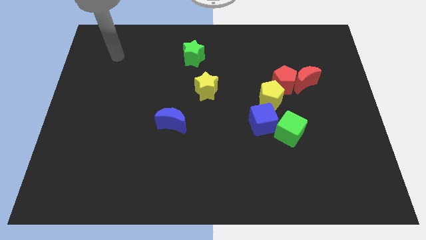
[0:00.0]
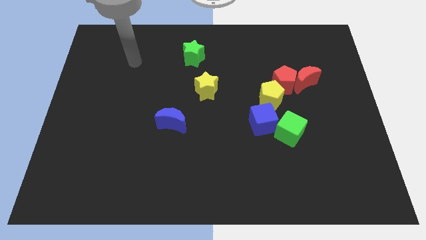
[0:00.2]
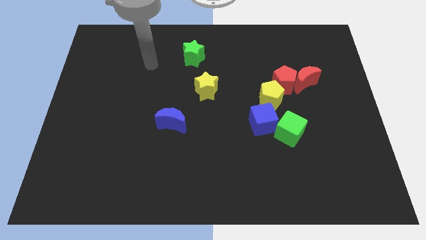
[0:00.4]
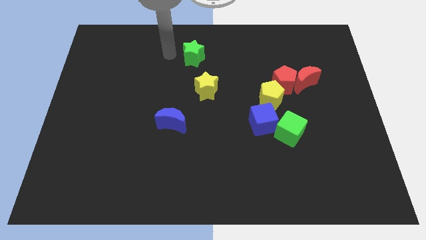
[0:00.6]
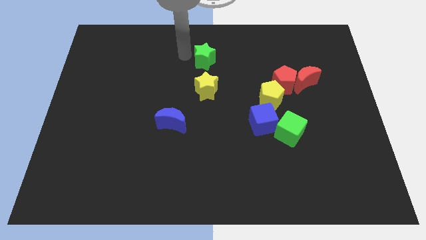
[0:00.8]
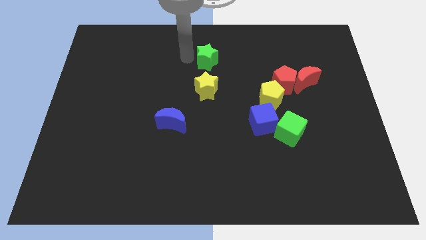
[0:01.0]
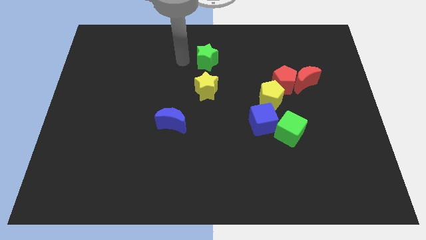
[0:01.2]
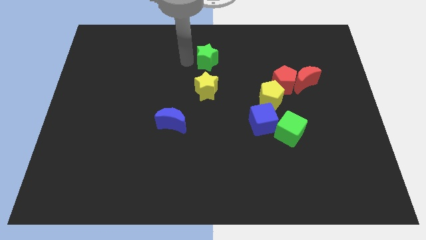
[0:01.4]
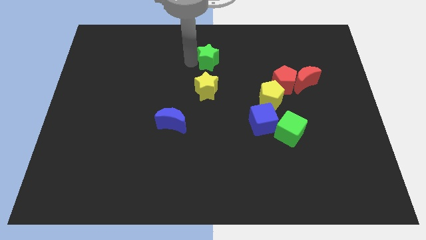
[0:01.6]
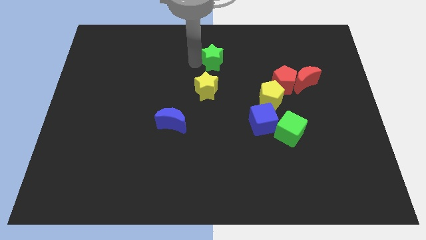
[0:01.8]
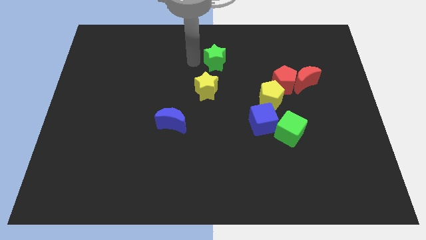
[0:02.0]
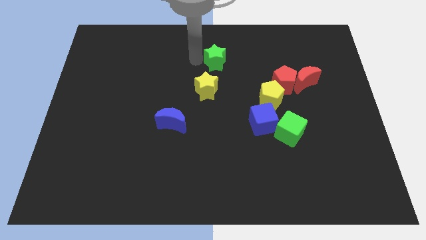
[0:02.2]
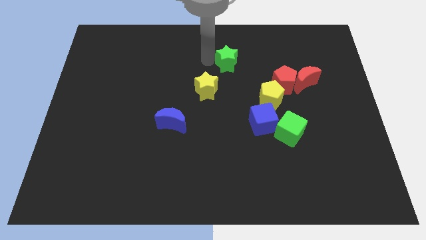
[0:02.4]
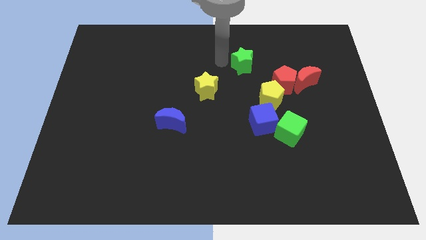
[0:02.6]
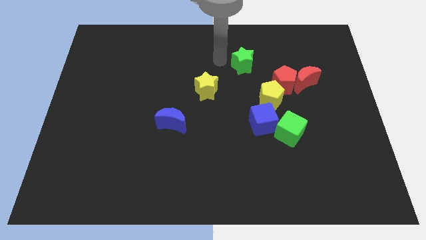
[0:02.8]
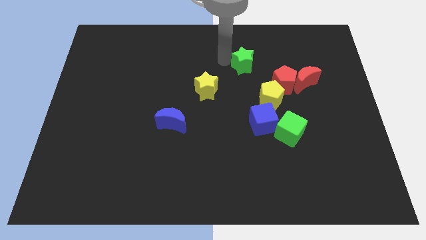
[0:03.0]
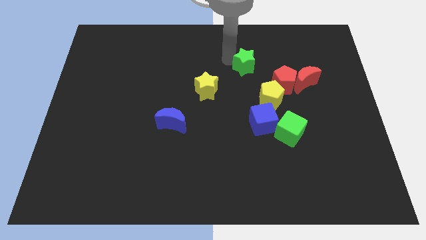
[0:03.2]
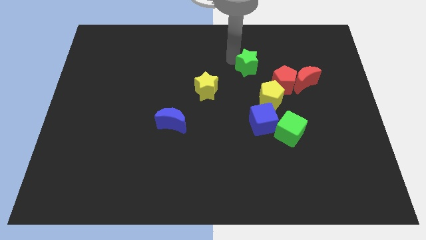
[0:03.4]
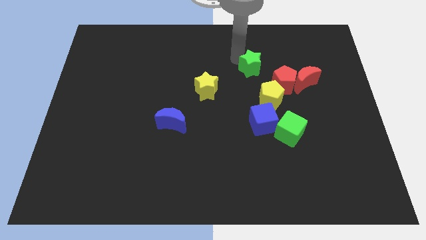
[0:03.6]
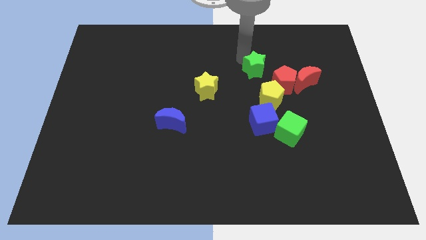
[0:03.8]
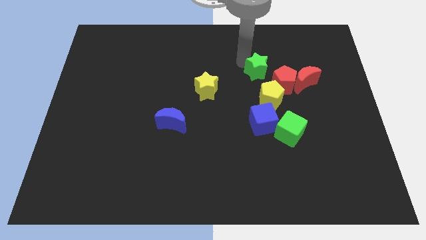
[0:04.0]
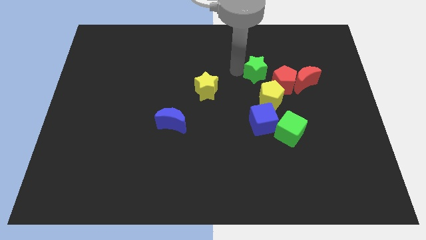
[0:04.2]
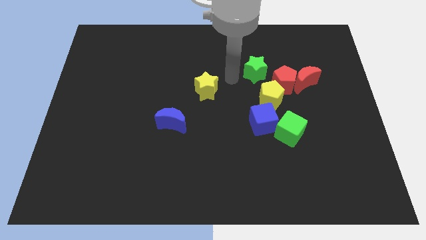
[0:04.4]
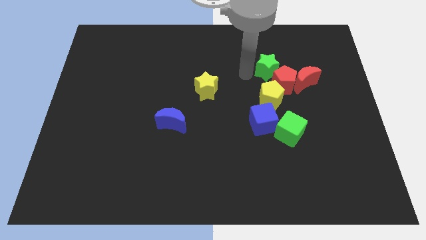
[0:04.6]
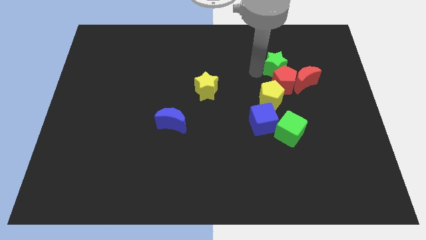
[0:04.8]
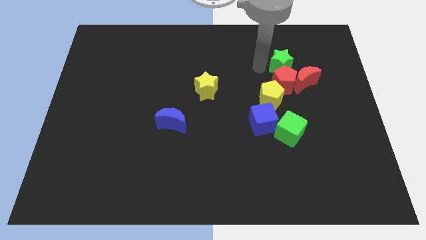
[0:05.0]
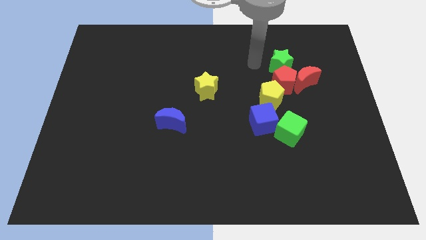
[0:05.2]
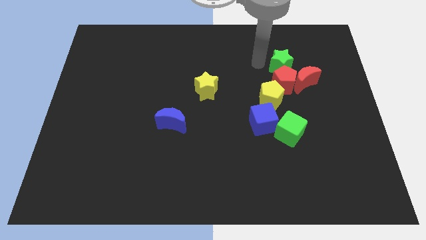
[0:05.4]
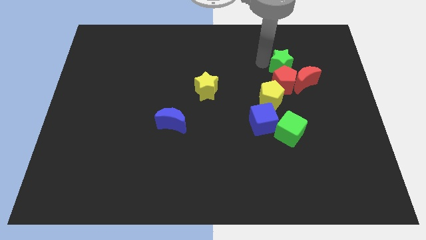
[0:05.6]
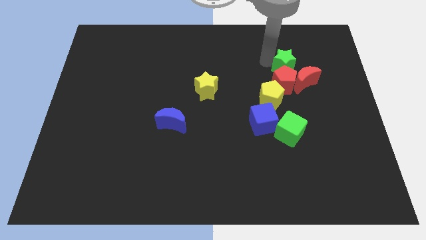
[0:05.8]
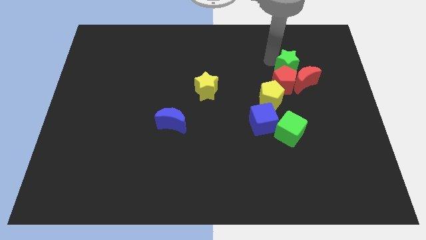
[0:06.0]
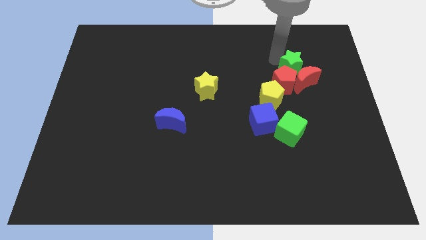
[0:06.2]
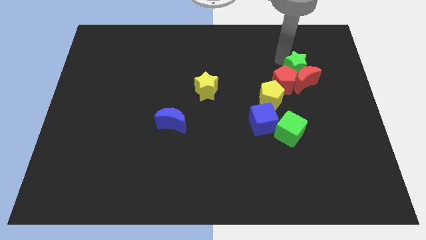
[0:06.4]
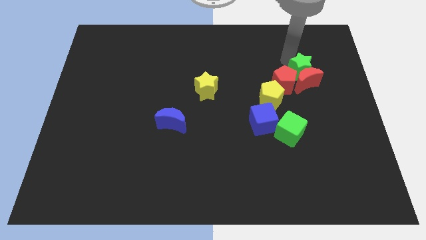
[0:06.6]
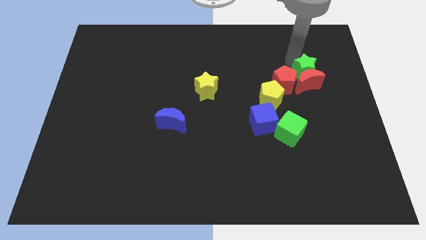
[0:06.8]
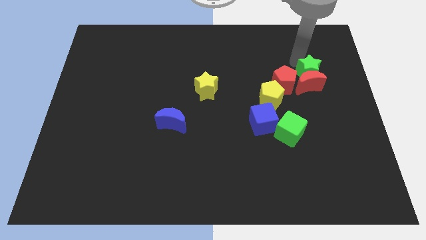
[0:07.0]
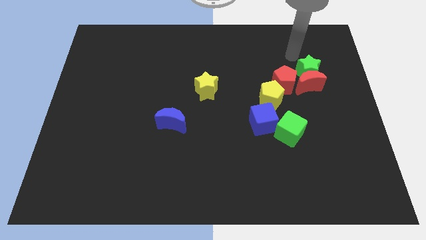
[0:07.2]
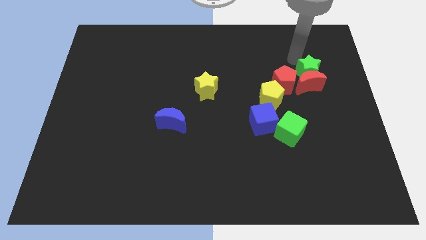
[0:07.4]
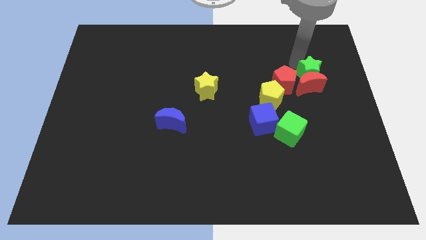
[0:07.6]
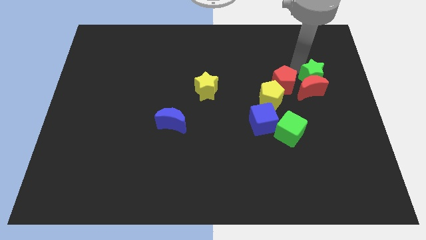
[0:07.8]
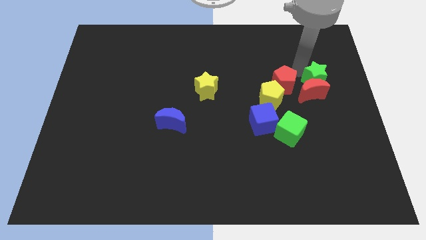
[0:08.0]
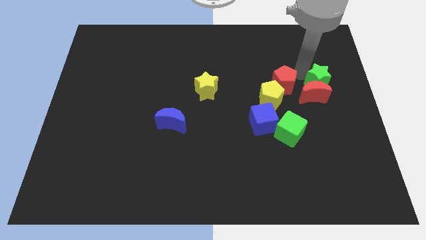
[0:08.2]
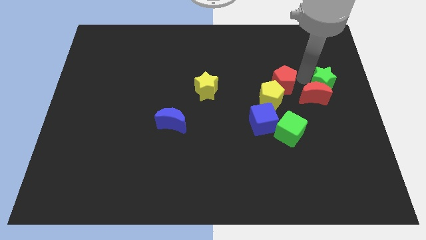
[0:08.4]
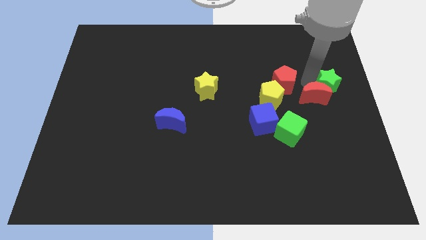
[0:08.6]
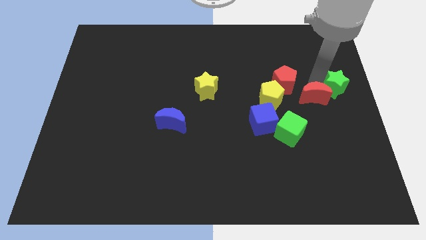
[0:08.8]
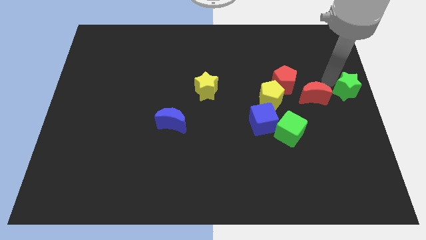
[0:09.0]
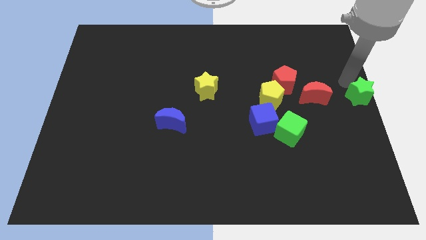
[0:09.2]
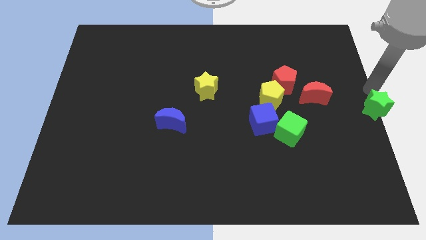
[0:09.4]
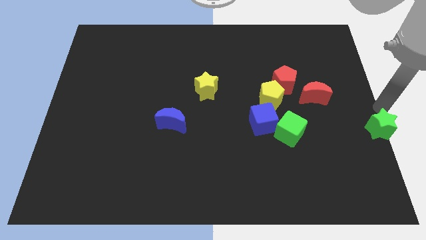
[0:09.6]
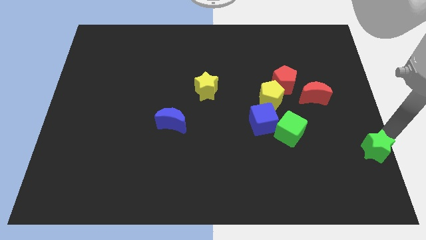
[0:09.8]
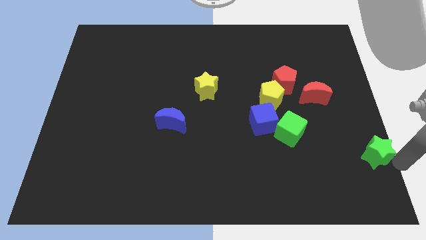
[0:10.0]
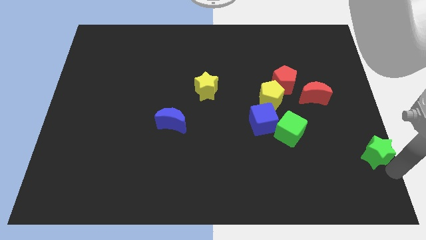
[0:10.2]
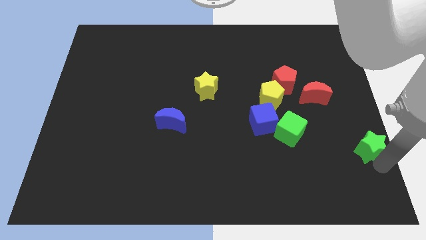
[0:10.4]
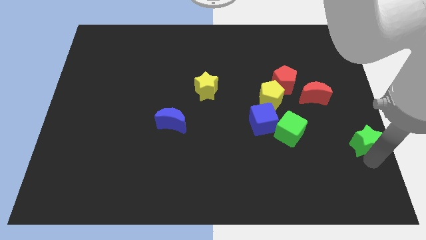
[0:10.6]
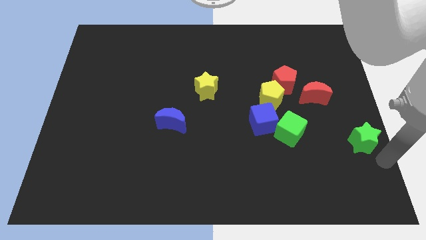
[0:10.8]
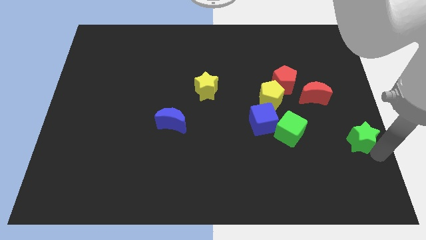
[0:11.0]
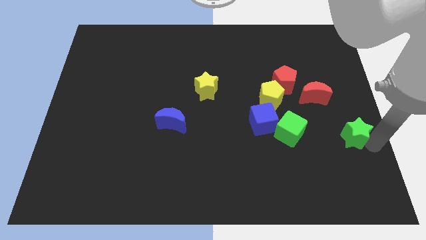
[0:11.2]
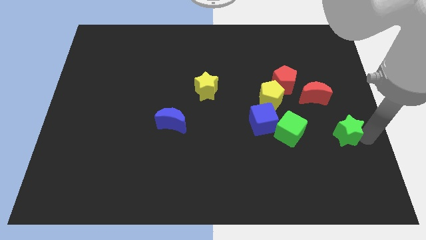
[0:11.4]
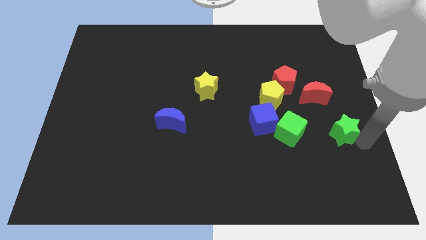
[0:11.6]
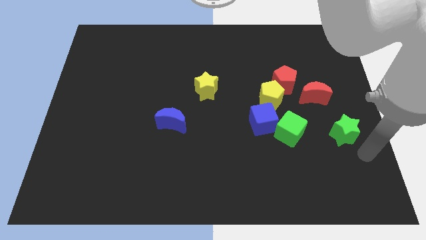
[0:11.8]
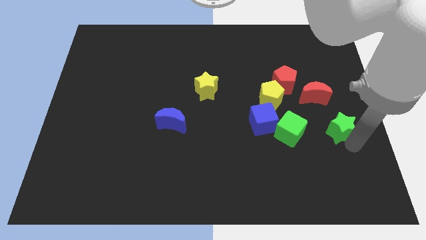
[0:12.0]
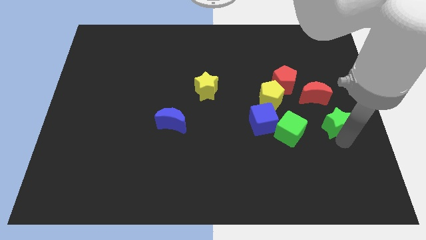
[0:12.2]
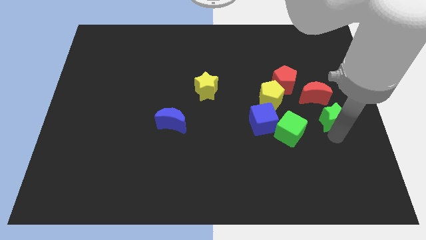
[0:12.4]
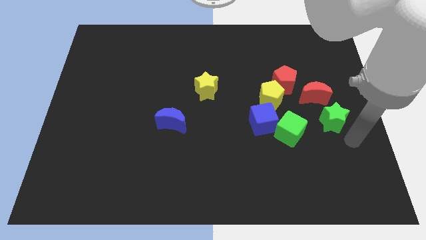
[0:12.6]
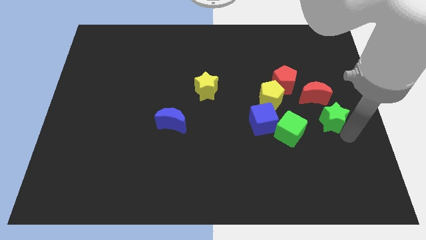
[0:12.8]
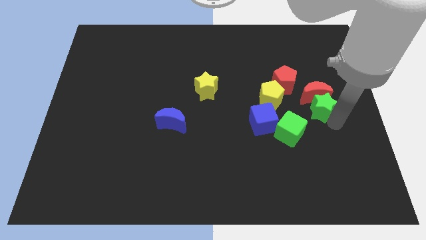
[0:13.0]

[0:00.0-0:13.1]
put the green star diagonally down and to the right of the red pentagon

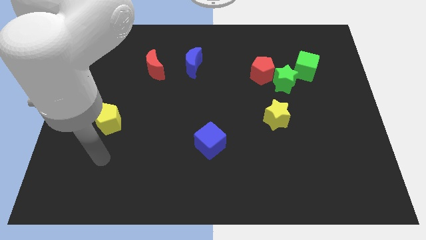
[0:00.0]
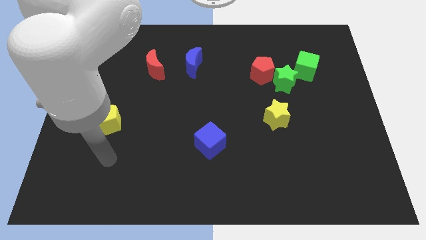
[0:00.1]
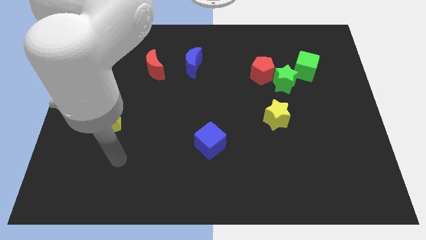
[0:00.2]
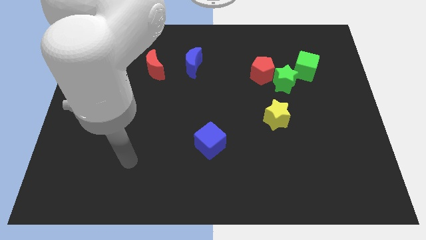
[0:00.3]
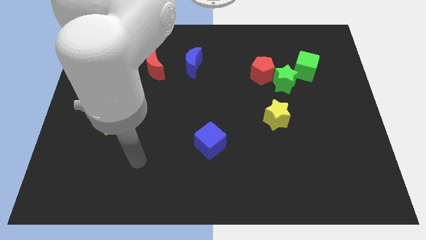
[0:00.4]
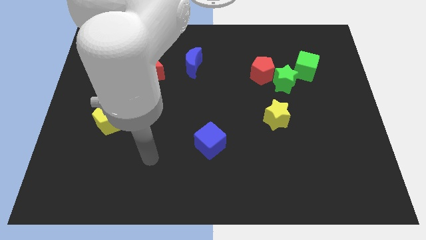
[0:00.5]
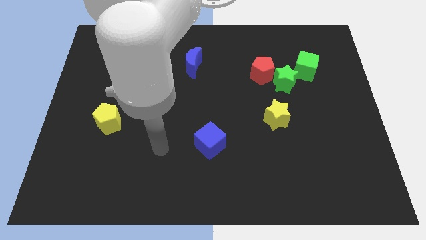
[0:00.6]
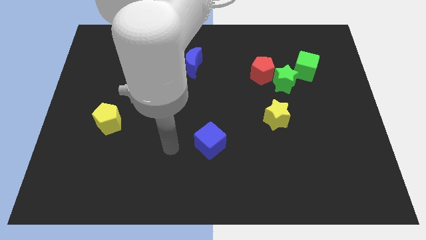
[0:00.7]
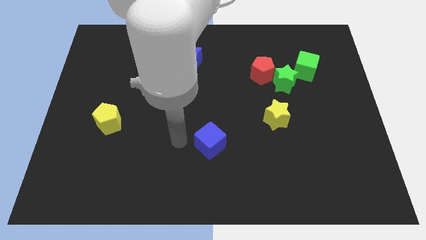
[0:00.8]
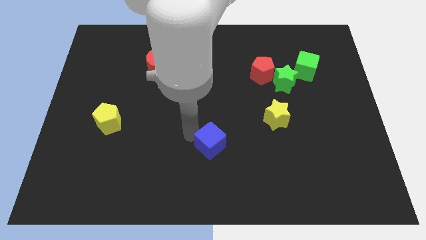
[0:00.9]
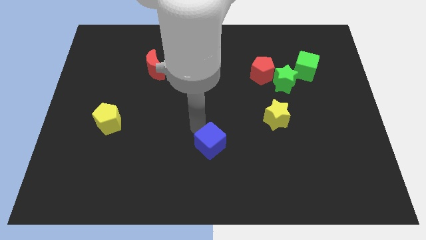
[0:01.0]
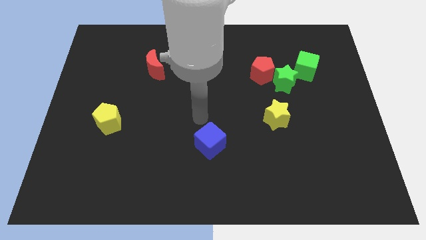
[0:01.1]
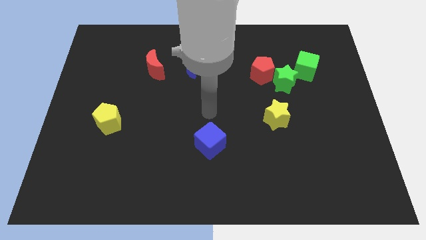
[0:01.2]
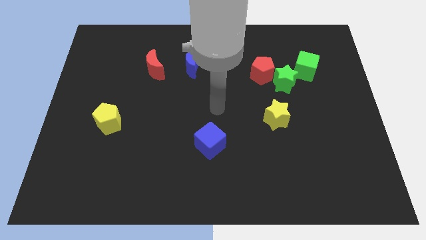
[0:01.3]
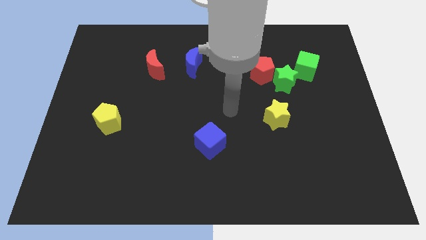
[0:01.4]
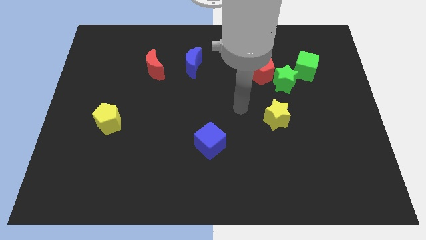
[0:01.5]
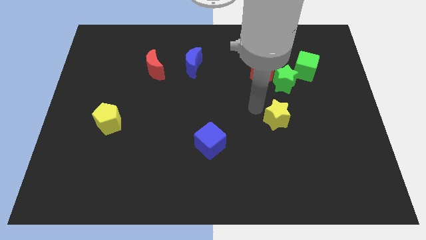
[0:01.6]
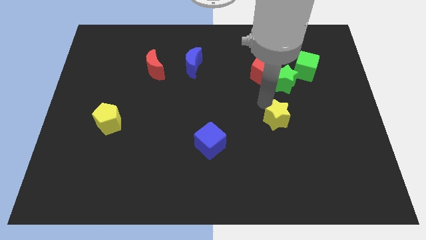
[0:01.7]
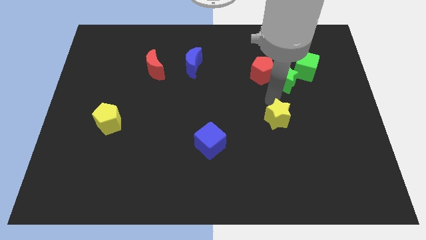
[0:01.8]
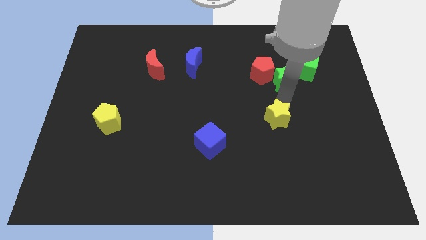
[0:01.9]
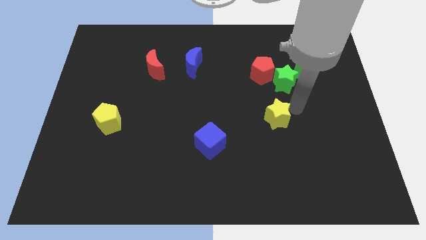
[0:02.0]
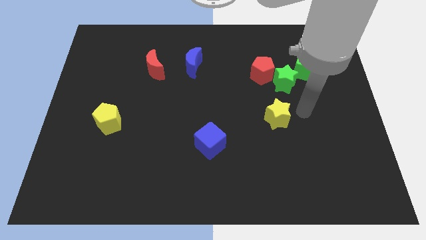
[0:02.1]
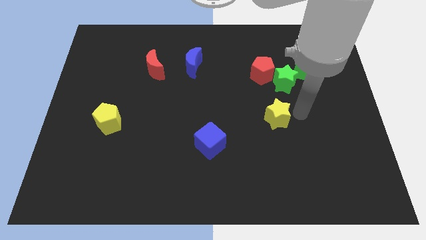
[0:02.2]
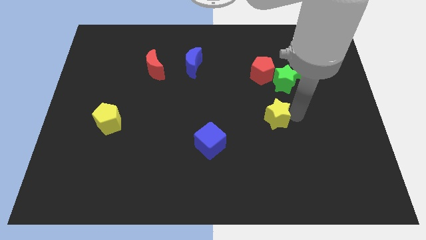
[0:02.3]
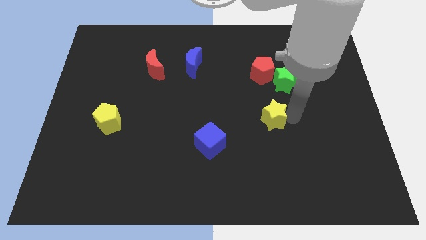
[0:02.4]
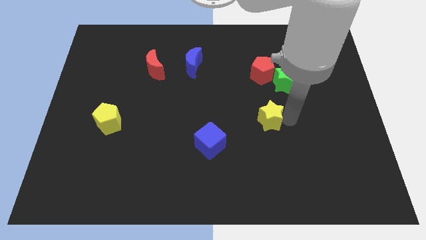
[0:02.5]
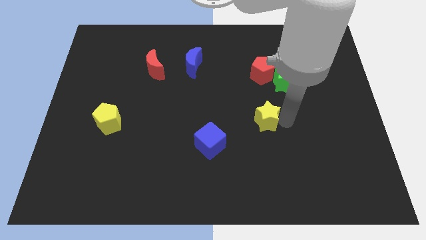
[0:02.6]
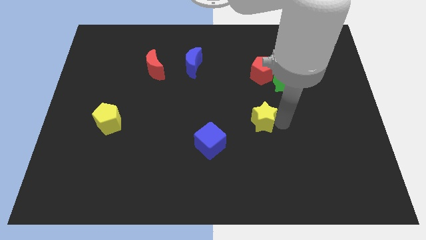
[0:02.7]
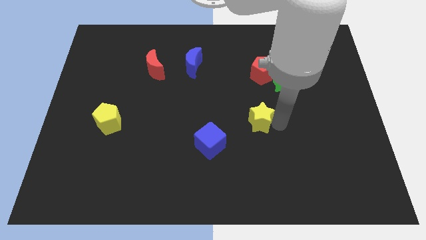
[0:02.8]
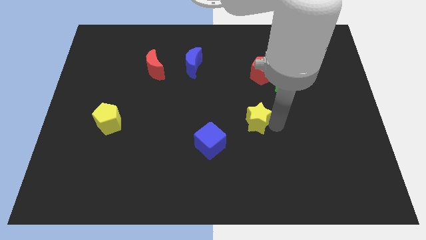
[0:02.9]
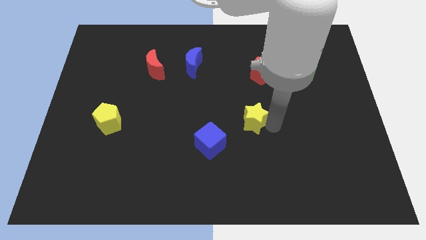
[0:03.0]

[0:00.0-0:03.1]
slide the yellow star diagonally up and to the right of the blue cube
